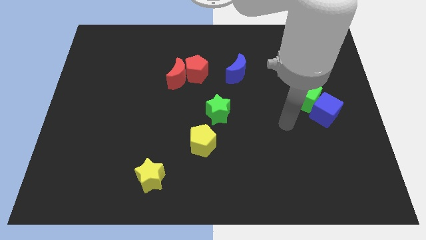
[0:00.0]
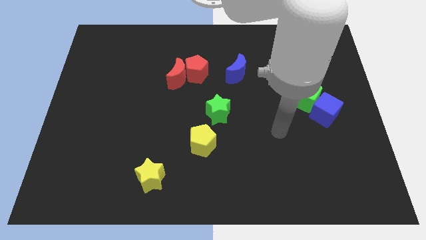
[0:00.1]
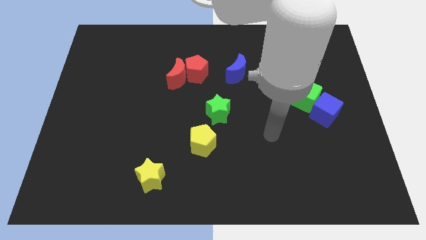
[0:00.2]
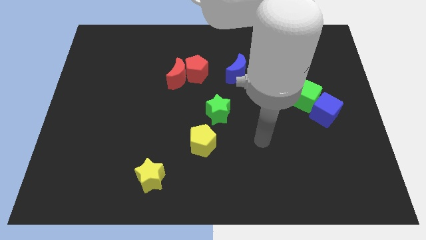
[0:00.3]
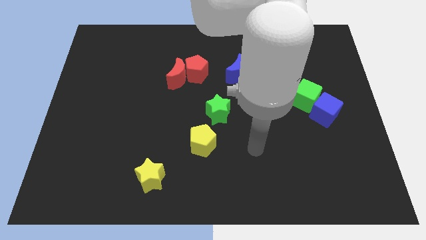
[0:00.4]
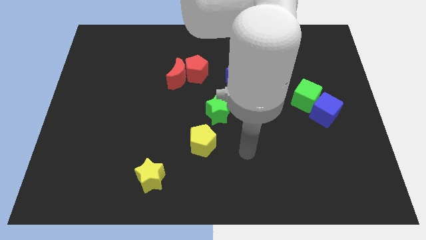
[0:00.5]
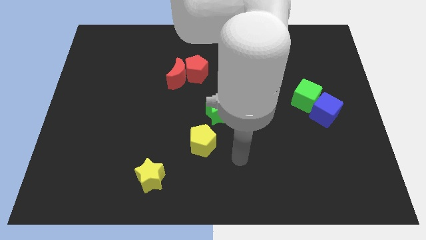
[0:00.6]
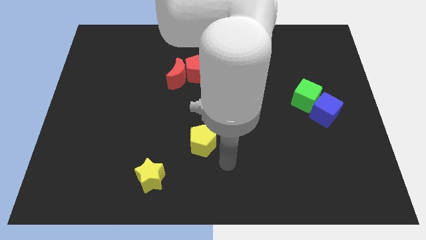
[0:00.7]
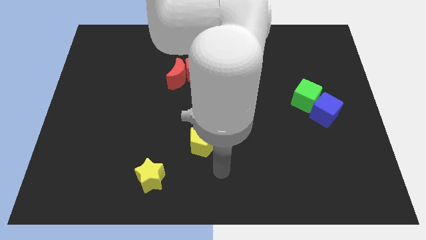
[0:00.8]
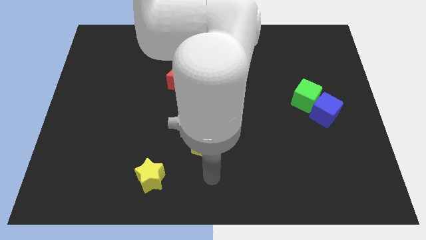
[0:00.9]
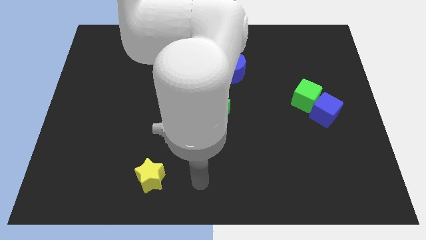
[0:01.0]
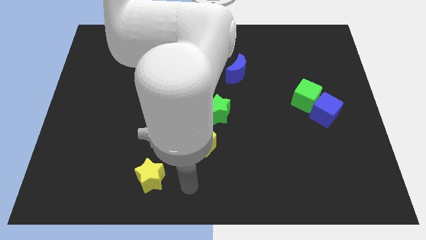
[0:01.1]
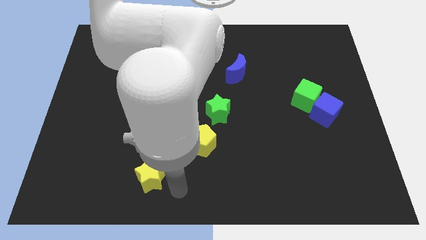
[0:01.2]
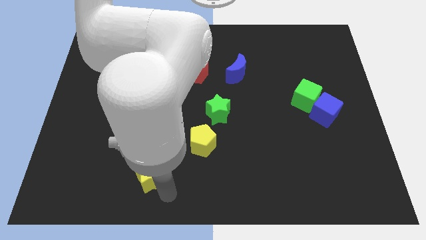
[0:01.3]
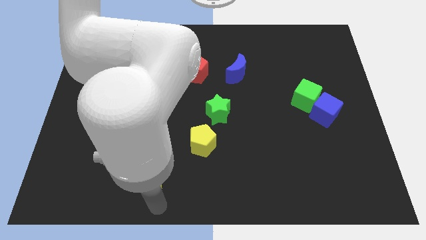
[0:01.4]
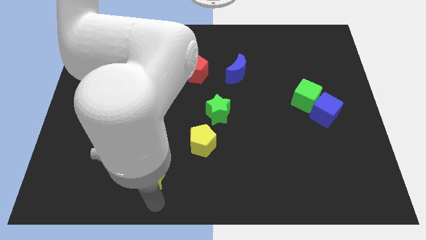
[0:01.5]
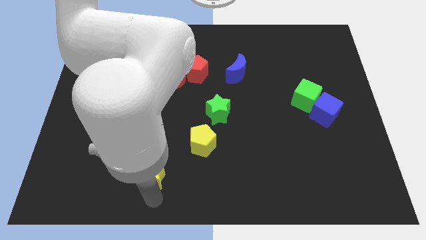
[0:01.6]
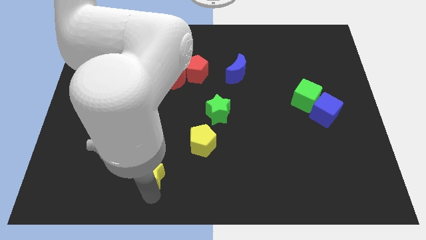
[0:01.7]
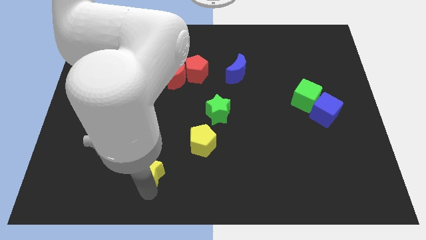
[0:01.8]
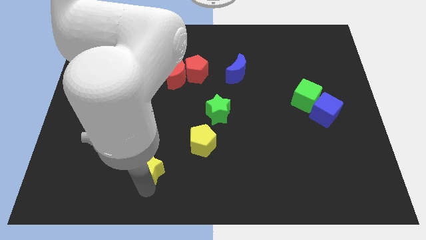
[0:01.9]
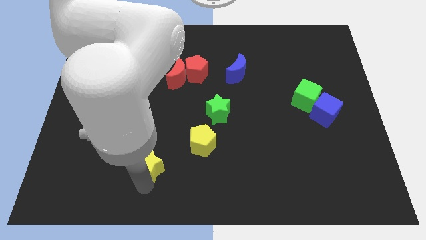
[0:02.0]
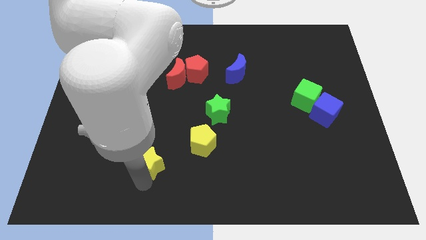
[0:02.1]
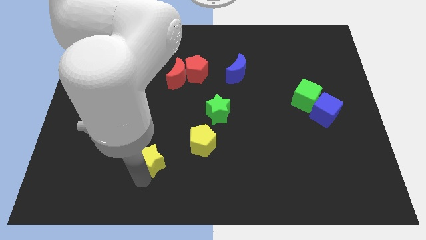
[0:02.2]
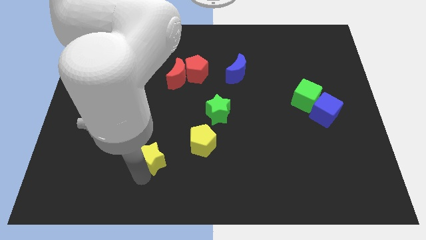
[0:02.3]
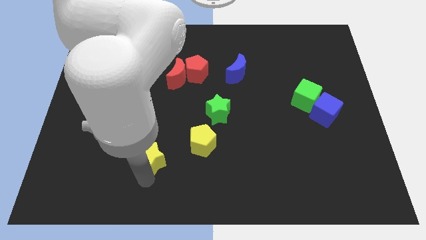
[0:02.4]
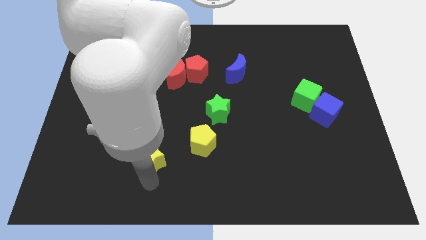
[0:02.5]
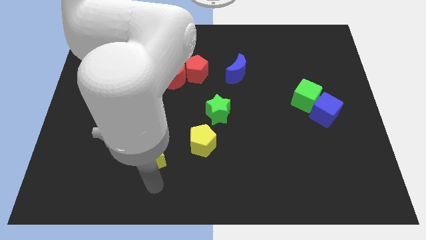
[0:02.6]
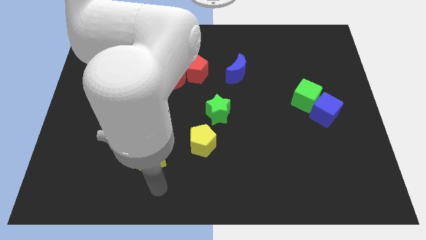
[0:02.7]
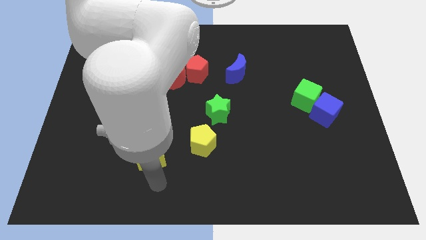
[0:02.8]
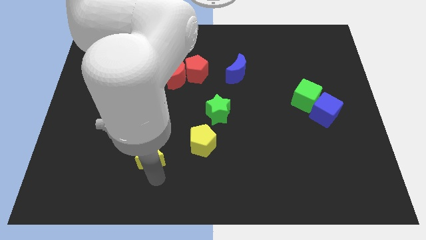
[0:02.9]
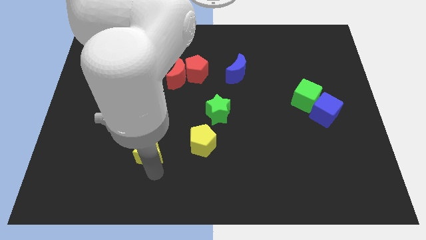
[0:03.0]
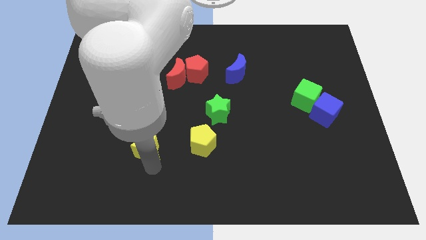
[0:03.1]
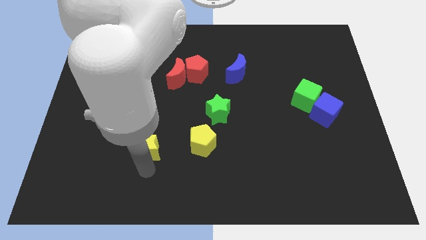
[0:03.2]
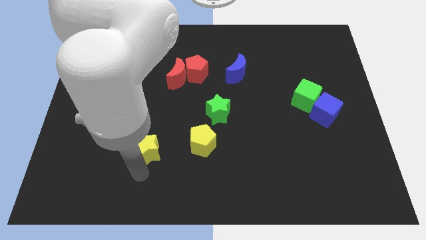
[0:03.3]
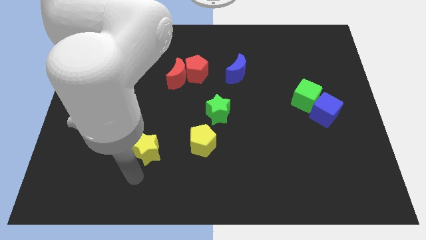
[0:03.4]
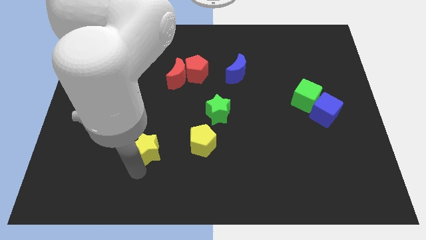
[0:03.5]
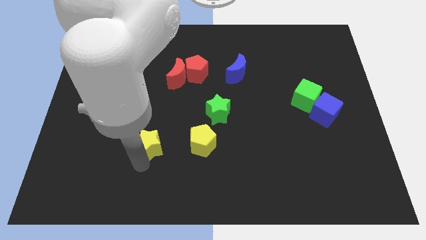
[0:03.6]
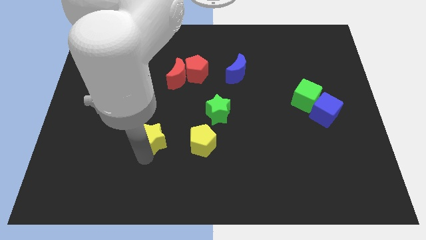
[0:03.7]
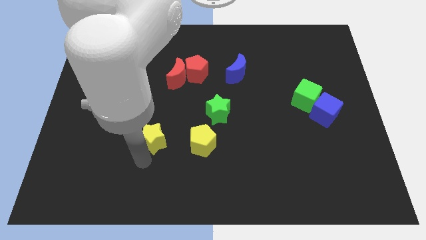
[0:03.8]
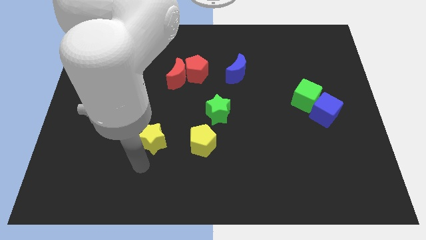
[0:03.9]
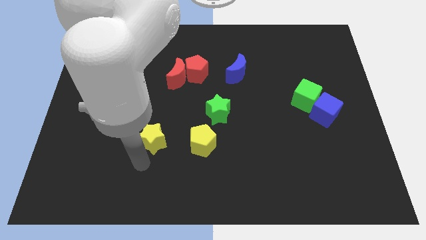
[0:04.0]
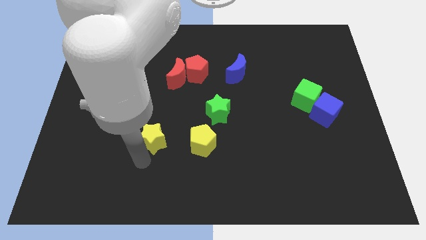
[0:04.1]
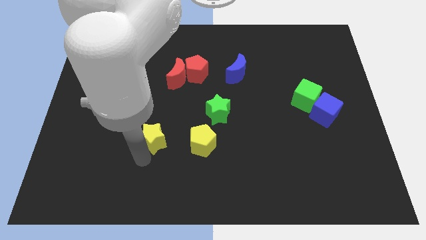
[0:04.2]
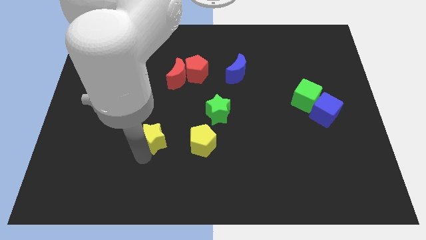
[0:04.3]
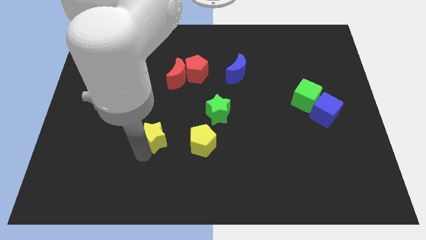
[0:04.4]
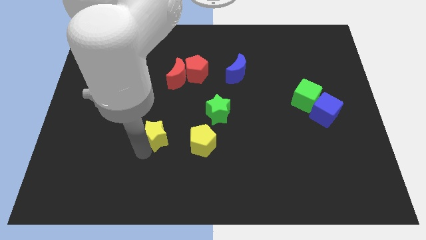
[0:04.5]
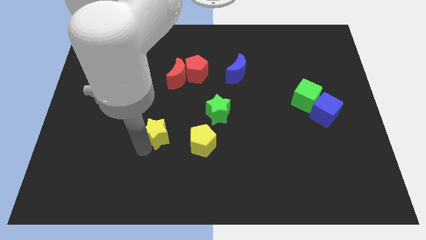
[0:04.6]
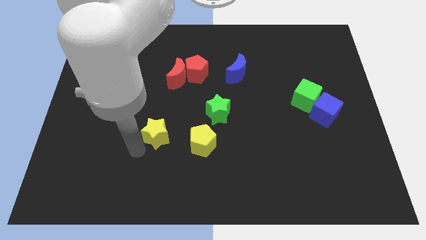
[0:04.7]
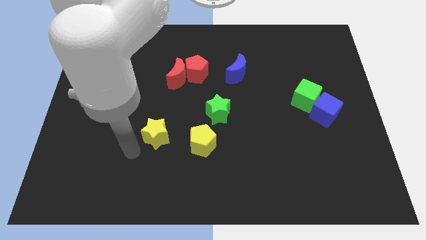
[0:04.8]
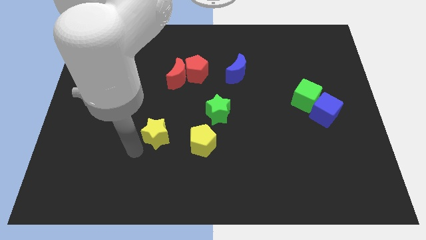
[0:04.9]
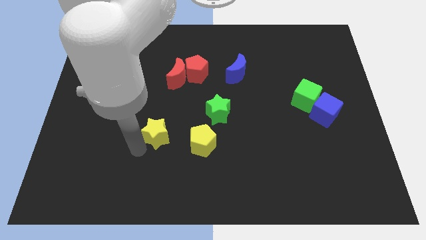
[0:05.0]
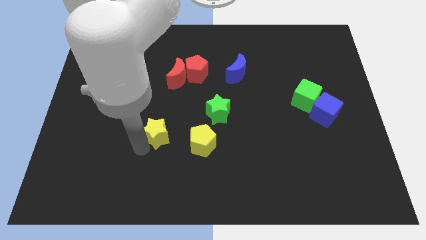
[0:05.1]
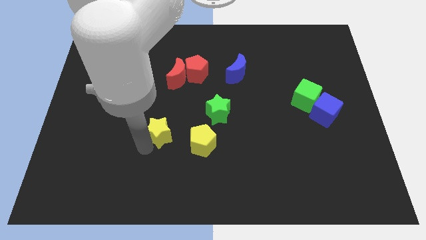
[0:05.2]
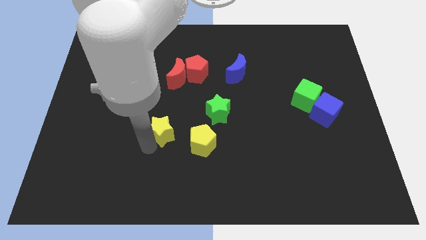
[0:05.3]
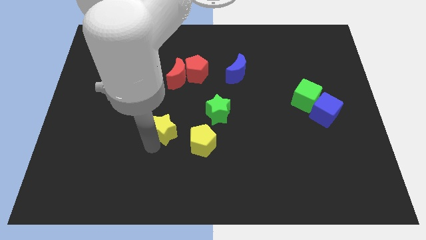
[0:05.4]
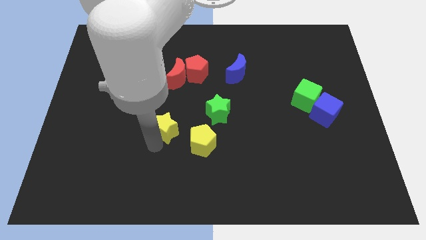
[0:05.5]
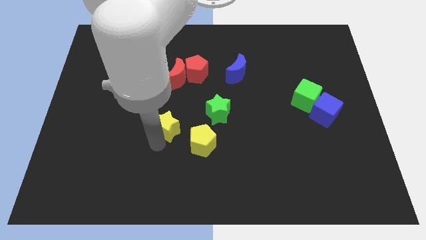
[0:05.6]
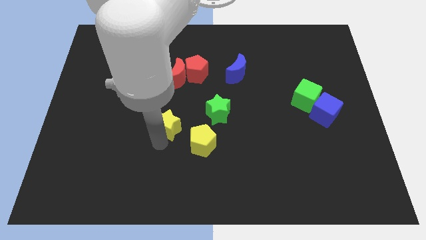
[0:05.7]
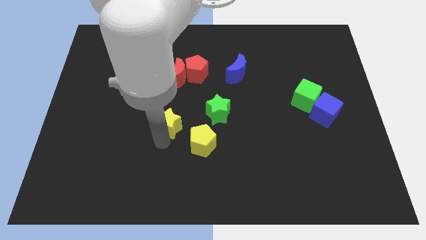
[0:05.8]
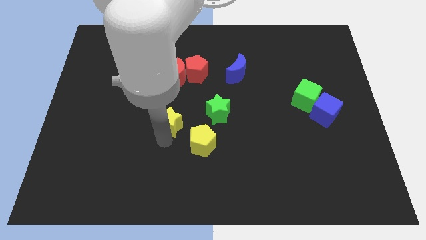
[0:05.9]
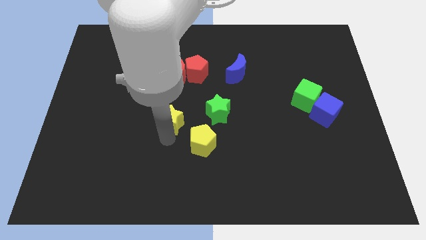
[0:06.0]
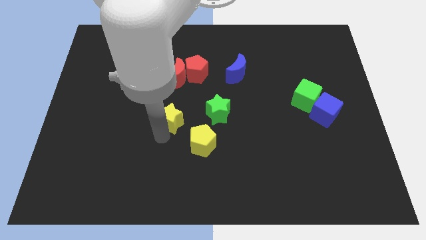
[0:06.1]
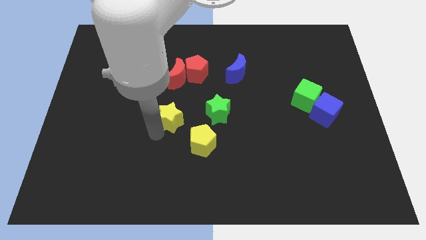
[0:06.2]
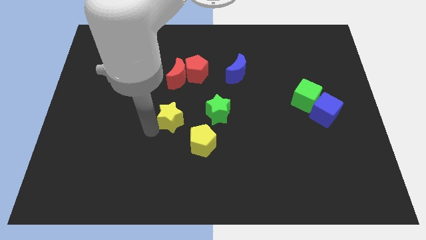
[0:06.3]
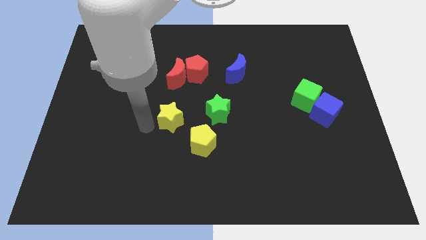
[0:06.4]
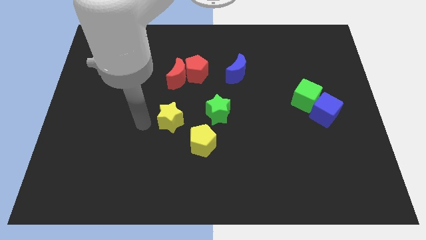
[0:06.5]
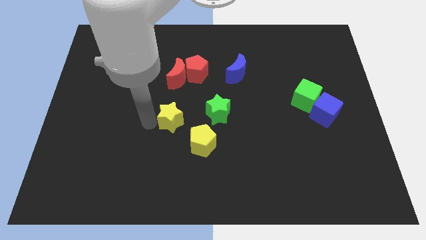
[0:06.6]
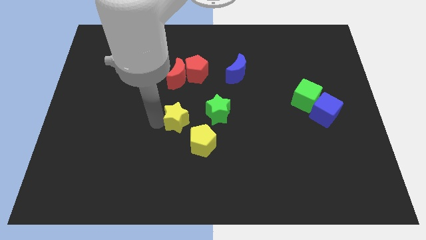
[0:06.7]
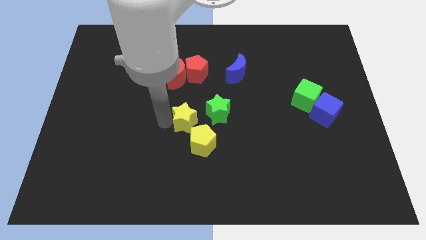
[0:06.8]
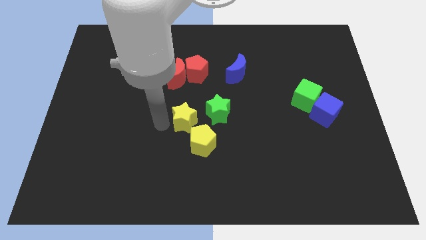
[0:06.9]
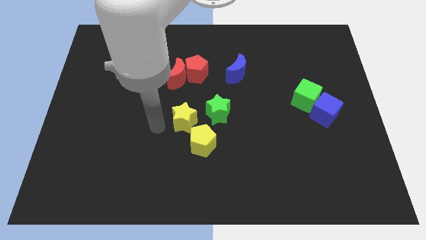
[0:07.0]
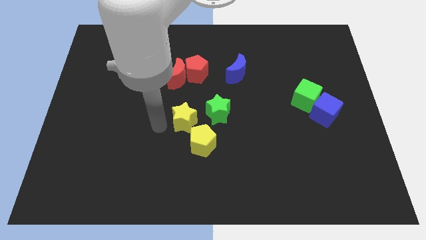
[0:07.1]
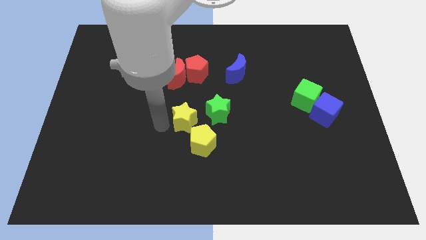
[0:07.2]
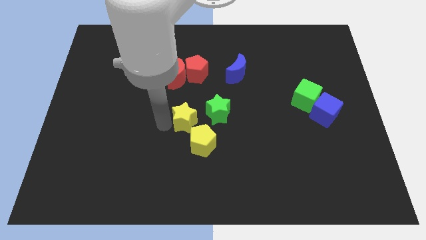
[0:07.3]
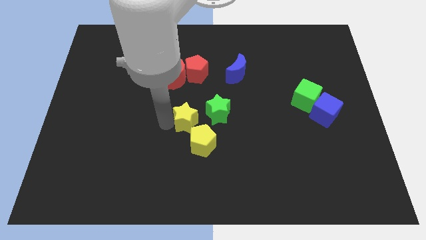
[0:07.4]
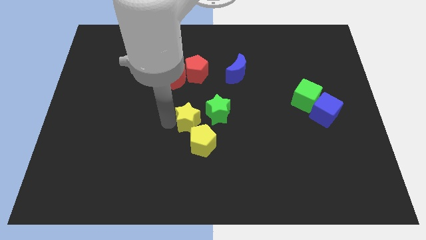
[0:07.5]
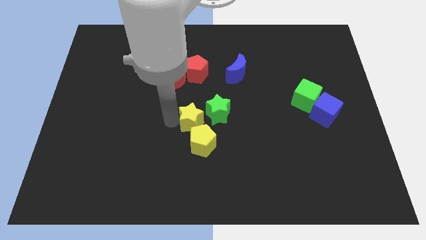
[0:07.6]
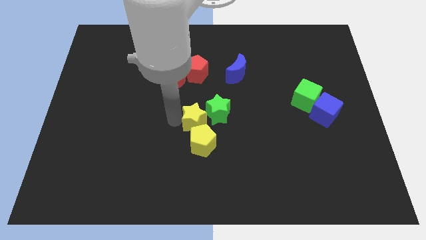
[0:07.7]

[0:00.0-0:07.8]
push the yellow star close to the green star
